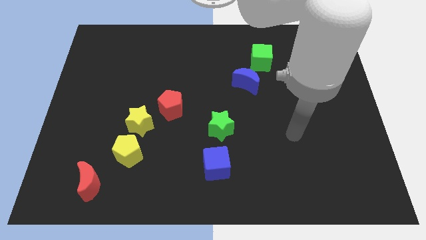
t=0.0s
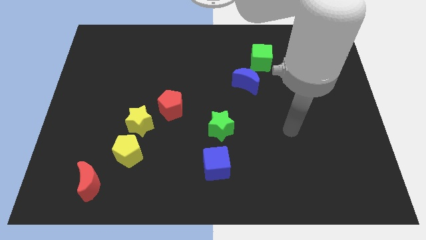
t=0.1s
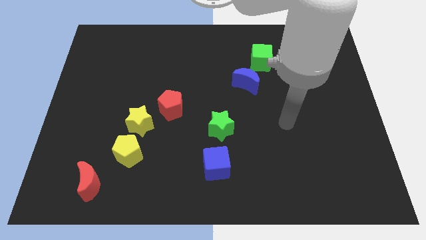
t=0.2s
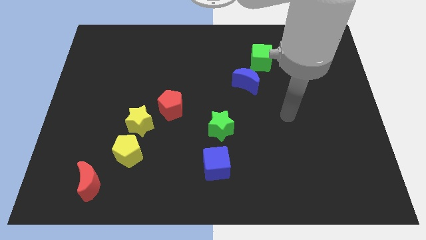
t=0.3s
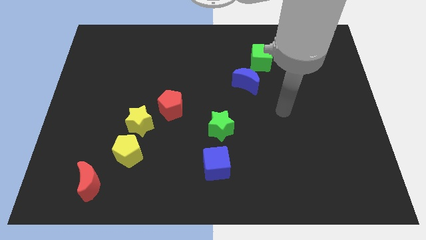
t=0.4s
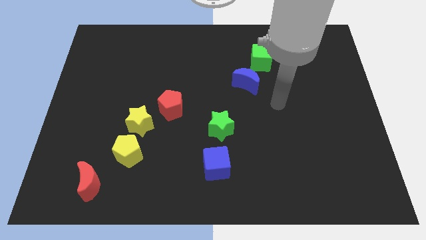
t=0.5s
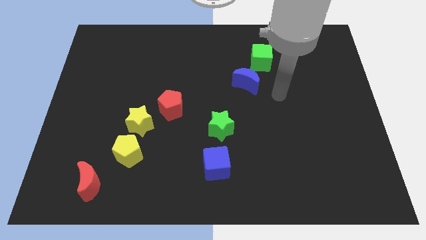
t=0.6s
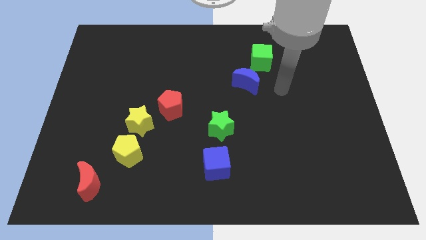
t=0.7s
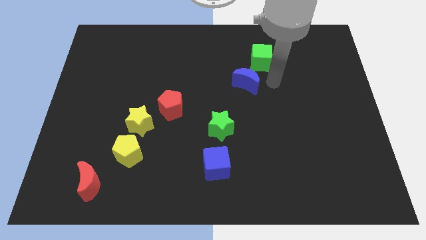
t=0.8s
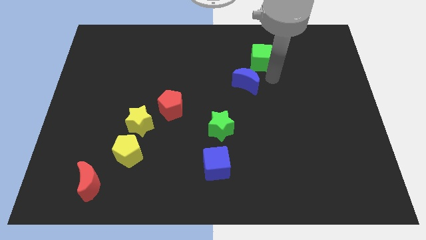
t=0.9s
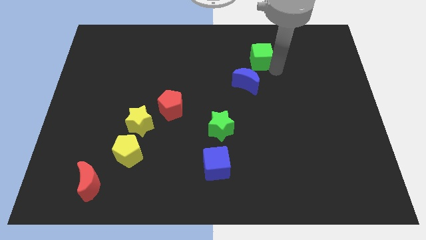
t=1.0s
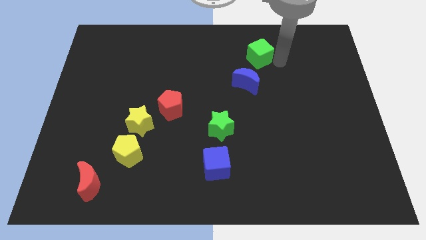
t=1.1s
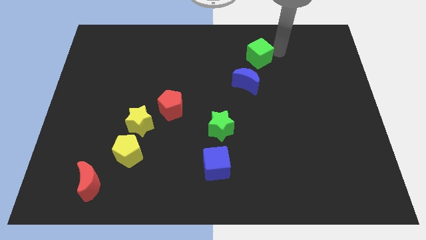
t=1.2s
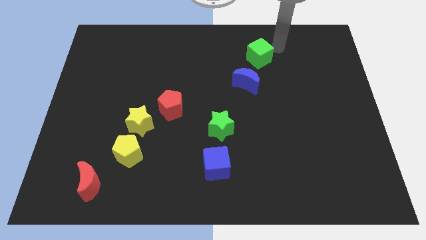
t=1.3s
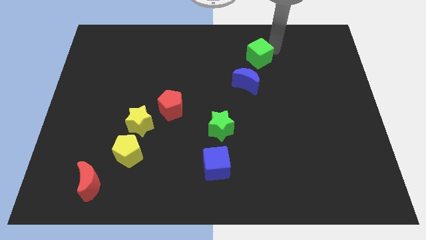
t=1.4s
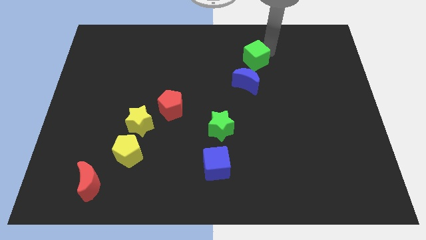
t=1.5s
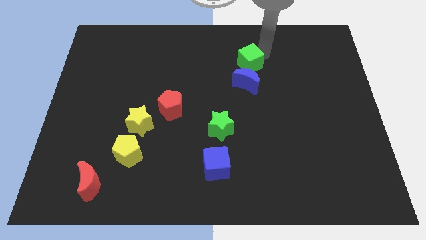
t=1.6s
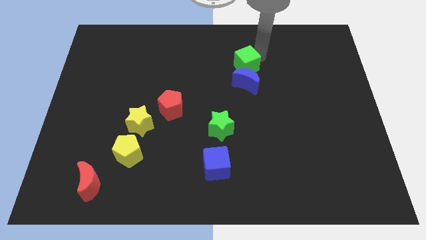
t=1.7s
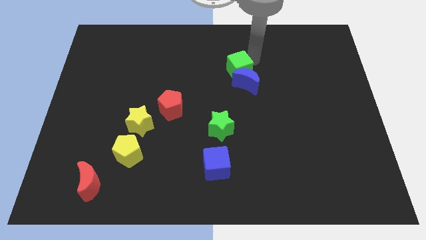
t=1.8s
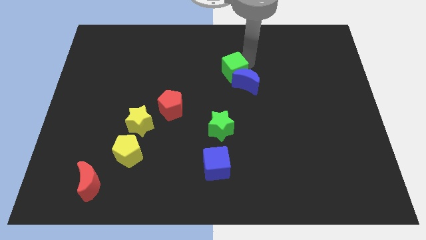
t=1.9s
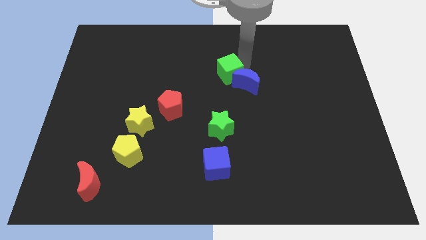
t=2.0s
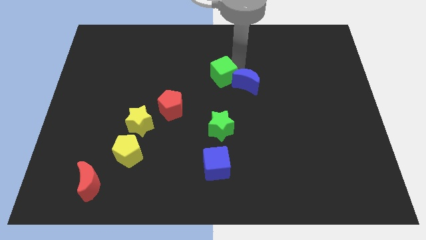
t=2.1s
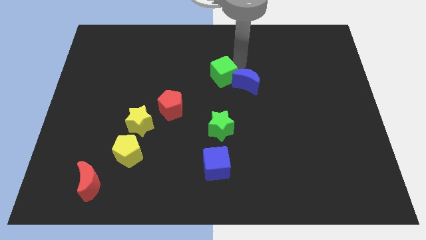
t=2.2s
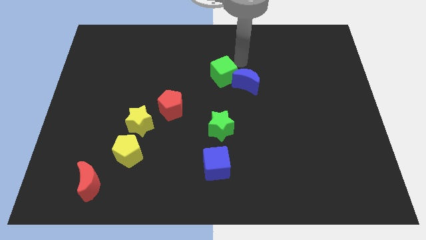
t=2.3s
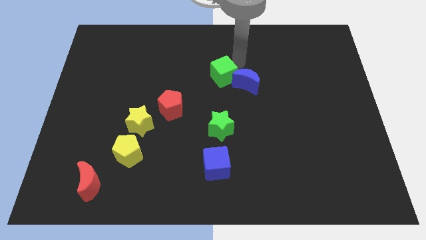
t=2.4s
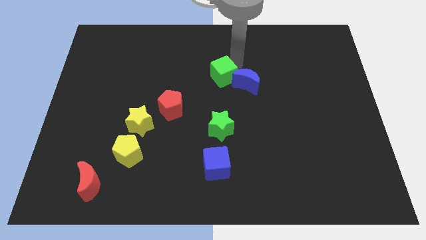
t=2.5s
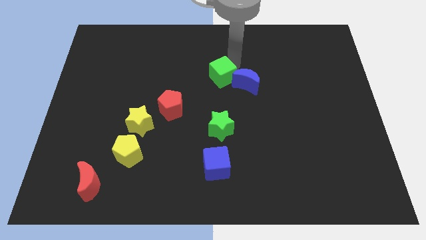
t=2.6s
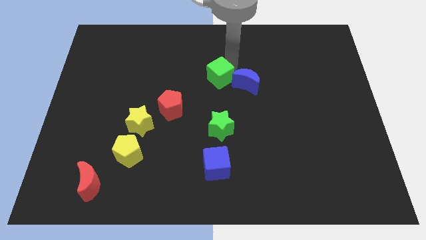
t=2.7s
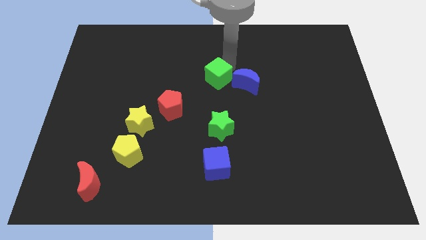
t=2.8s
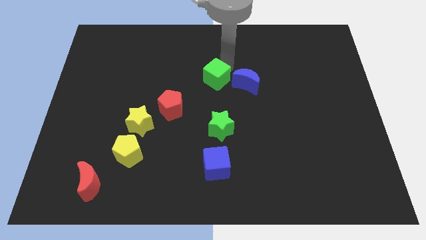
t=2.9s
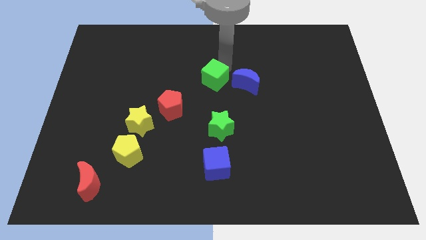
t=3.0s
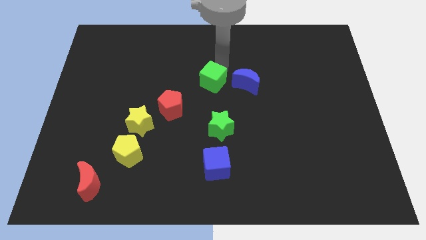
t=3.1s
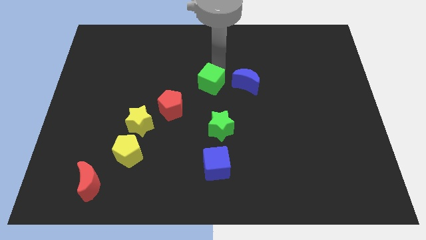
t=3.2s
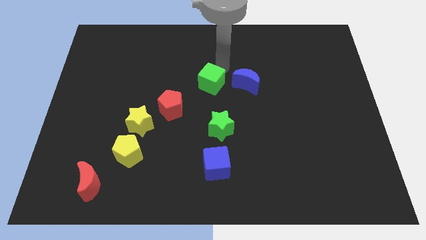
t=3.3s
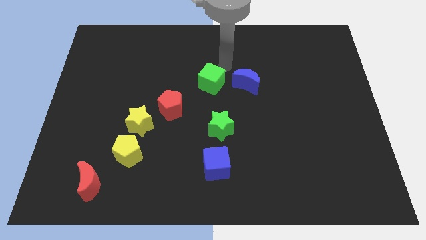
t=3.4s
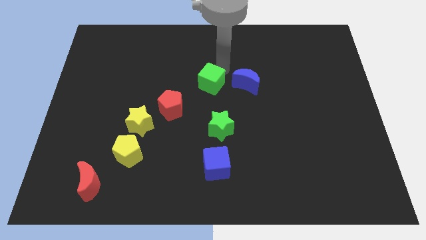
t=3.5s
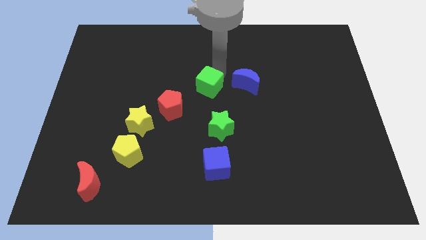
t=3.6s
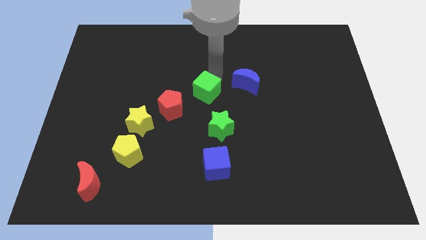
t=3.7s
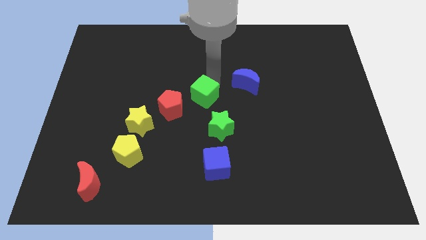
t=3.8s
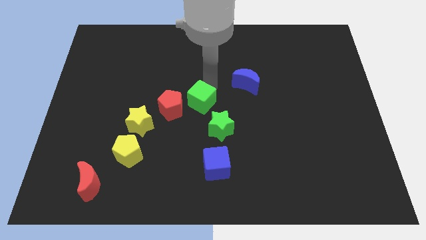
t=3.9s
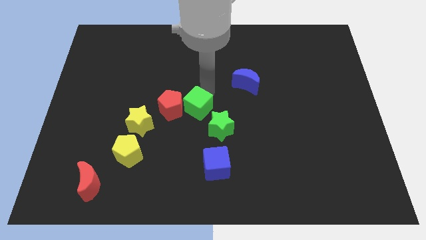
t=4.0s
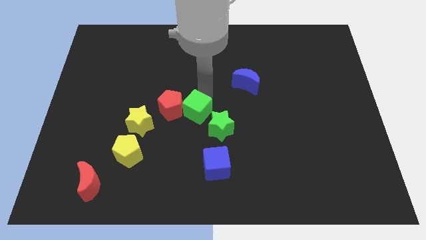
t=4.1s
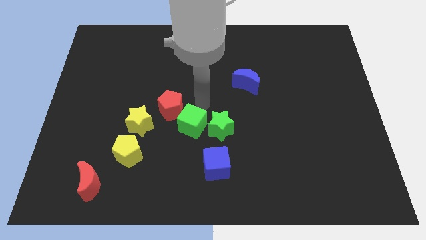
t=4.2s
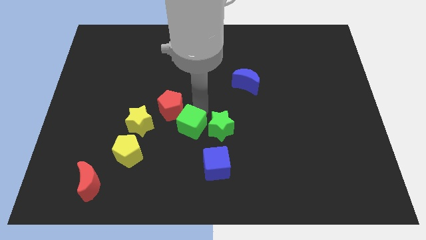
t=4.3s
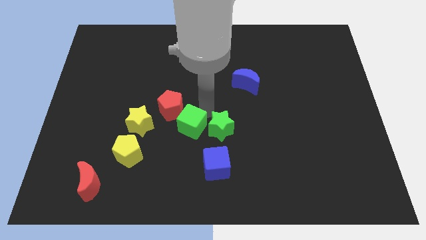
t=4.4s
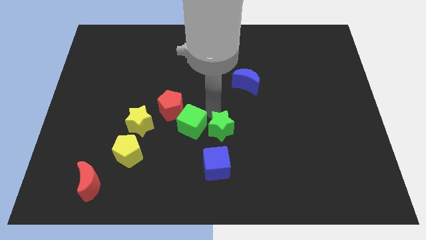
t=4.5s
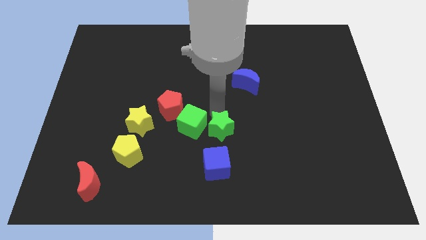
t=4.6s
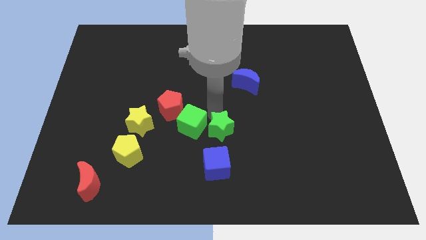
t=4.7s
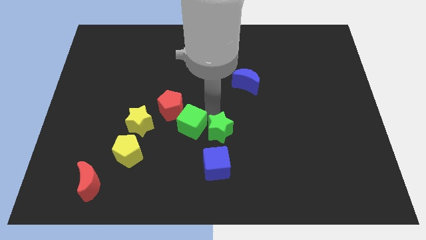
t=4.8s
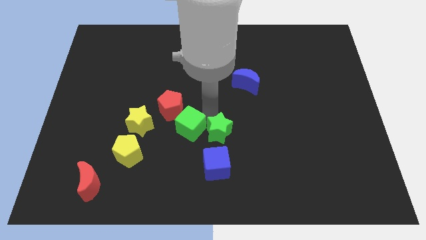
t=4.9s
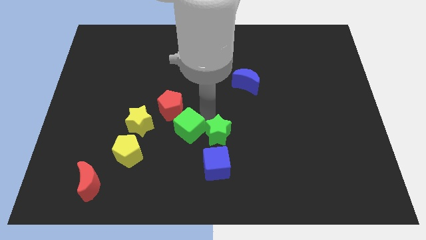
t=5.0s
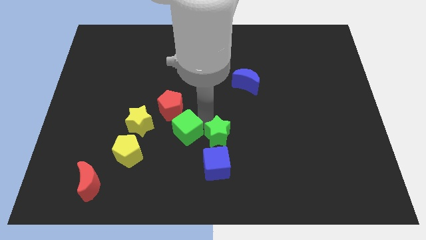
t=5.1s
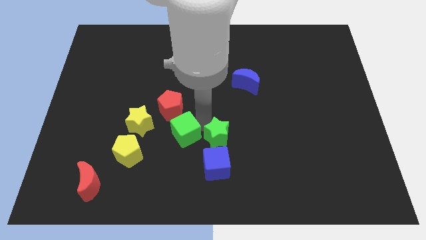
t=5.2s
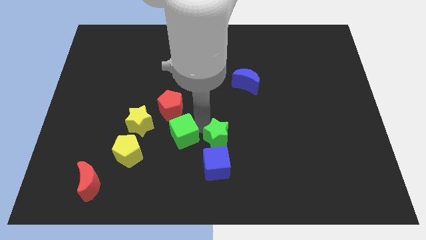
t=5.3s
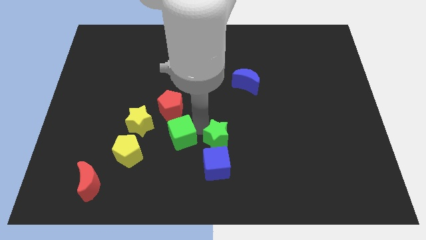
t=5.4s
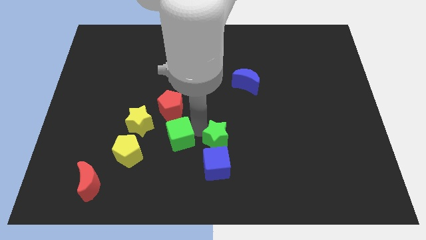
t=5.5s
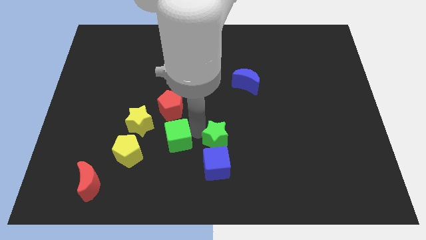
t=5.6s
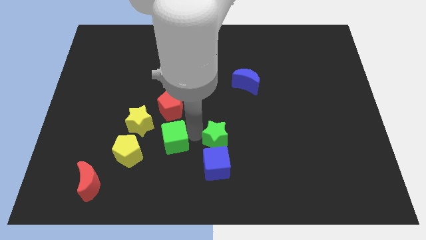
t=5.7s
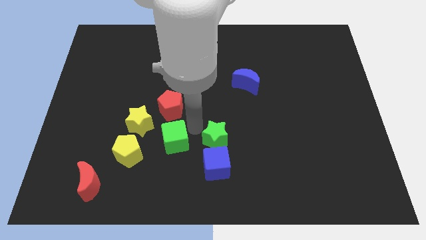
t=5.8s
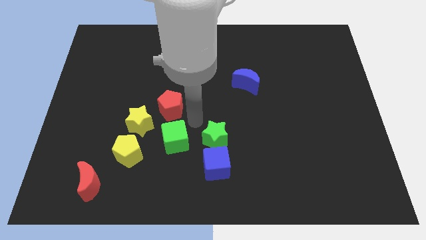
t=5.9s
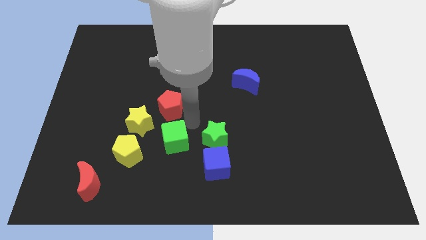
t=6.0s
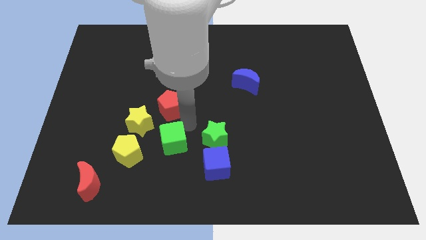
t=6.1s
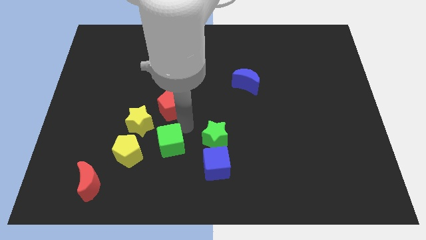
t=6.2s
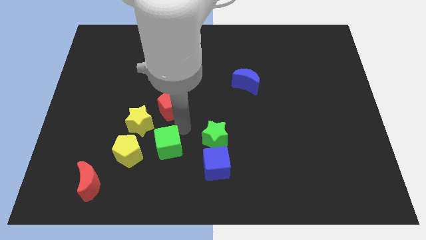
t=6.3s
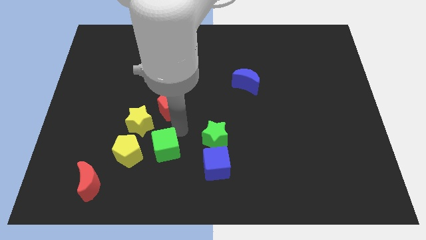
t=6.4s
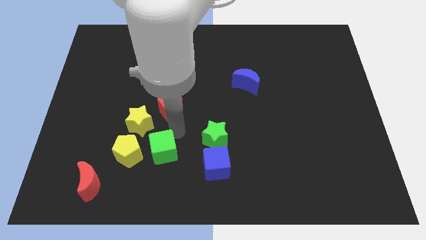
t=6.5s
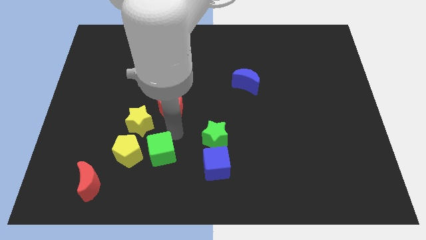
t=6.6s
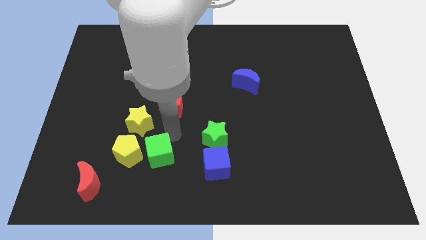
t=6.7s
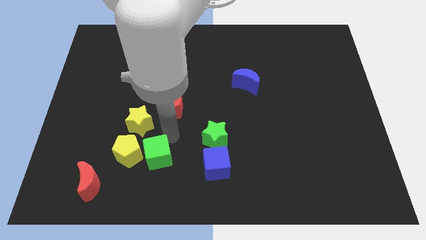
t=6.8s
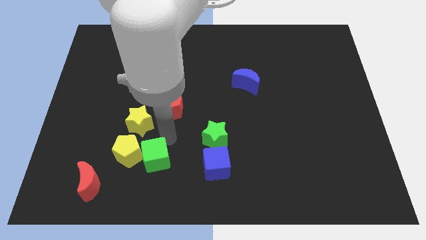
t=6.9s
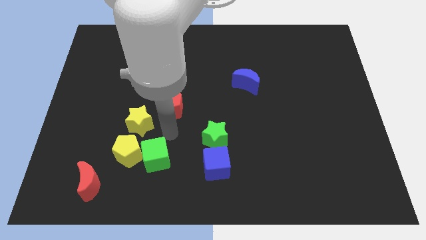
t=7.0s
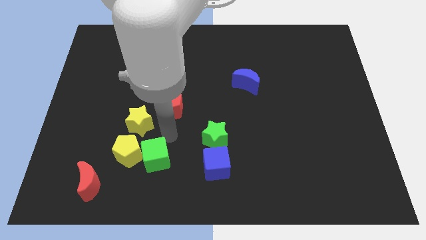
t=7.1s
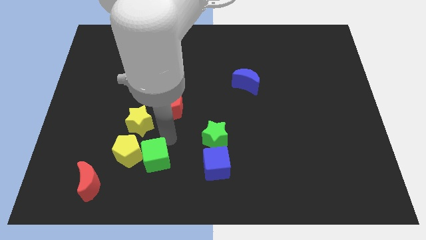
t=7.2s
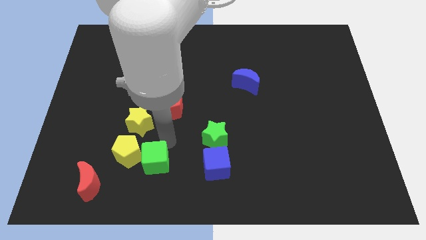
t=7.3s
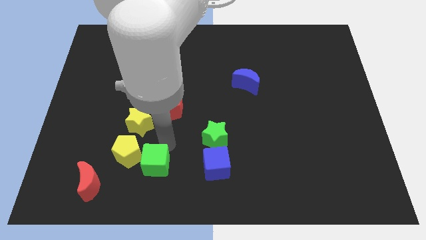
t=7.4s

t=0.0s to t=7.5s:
move the green cube to the right side of the red moon
